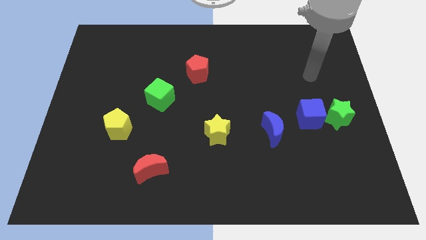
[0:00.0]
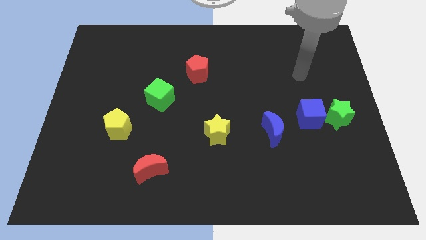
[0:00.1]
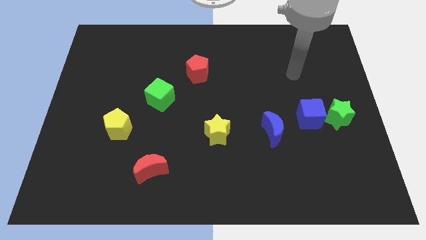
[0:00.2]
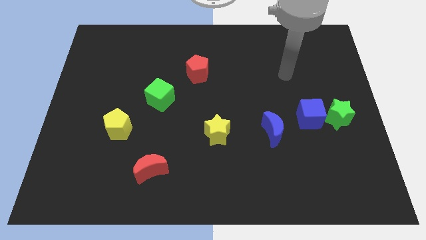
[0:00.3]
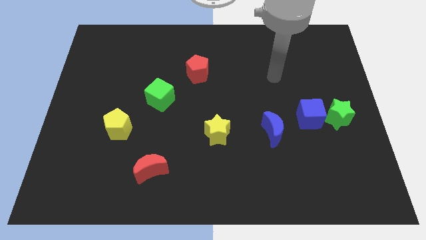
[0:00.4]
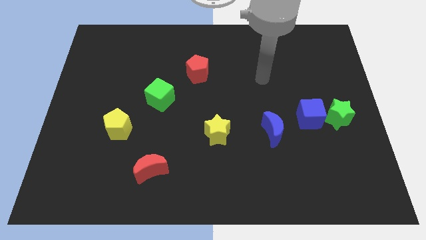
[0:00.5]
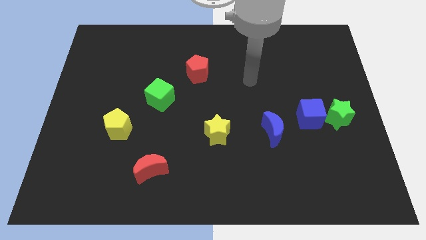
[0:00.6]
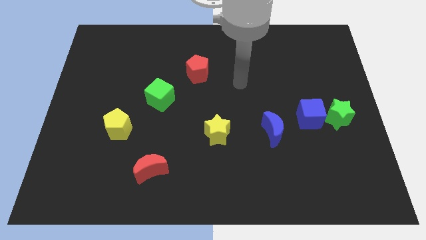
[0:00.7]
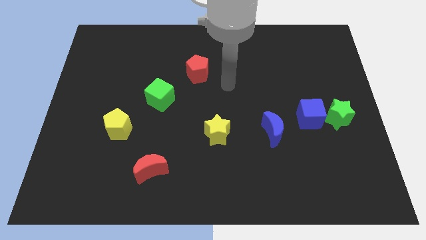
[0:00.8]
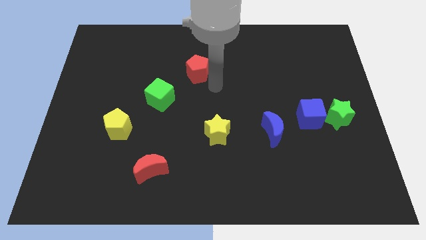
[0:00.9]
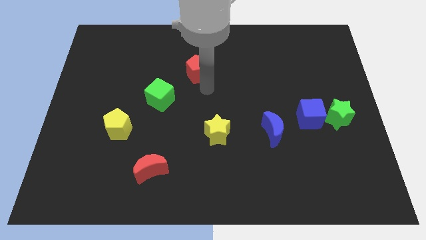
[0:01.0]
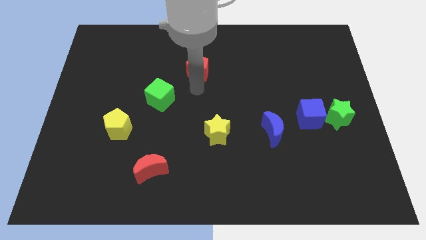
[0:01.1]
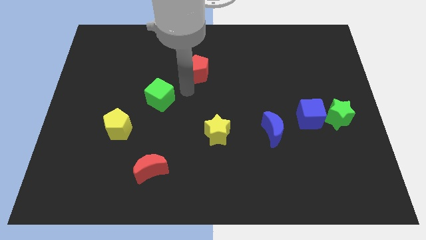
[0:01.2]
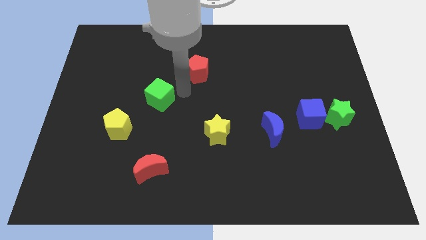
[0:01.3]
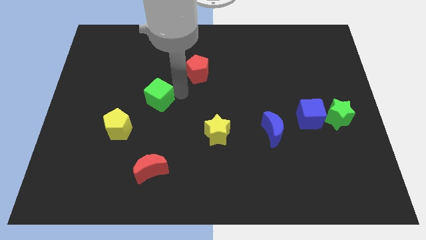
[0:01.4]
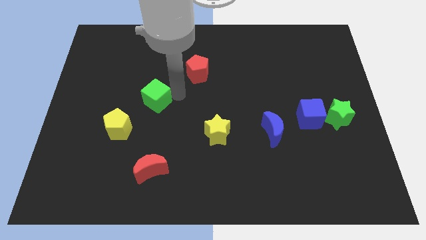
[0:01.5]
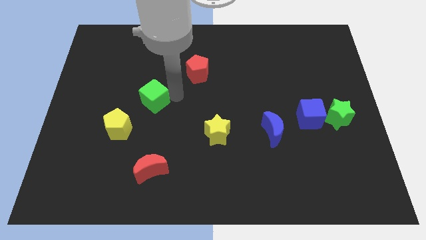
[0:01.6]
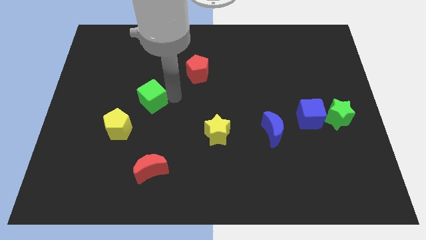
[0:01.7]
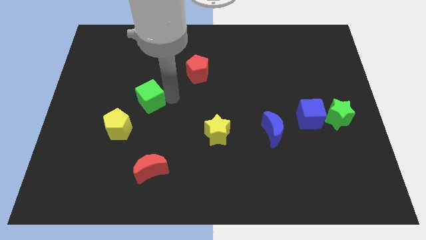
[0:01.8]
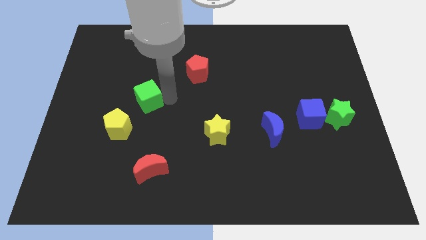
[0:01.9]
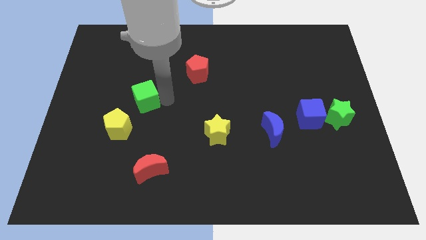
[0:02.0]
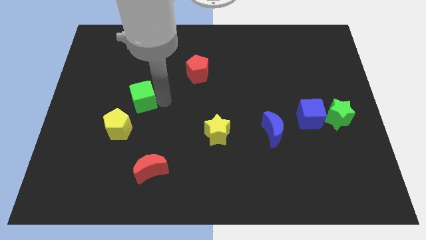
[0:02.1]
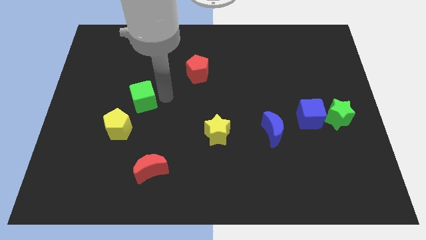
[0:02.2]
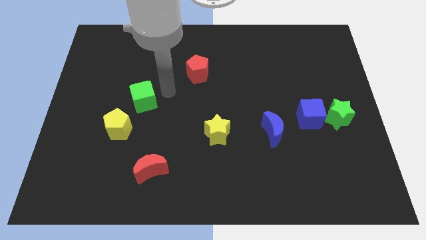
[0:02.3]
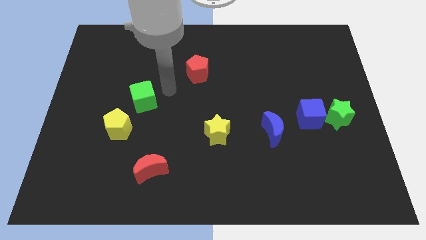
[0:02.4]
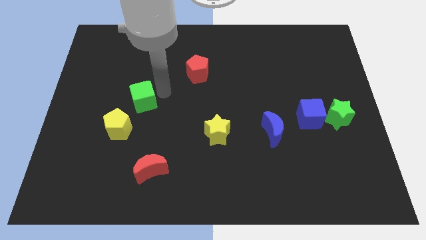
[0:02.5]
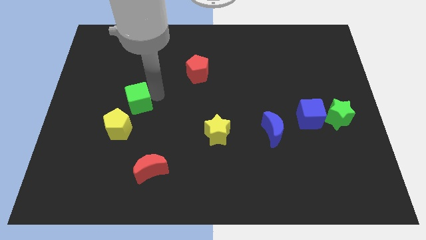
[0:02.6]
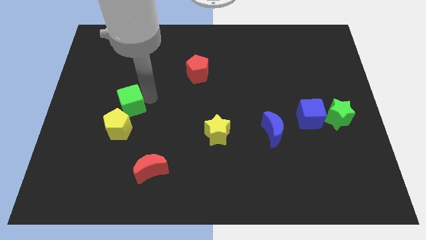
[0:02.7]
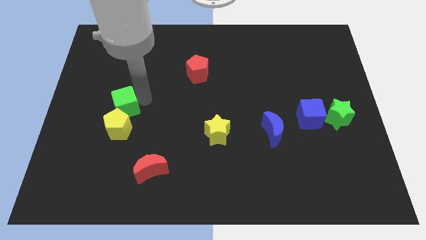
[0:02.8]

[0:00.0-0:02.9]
slide the green cube downwards and left diagonally a little

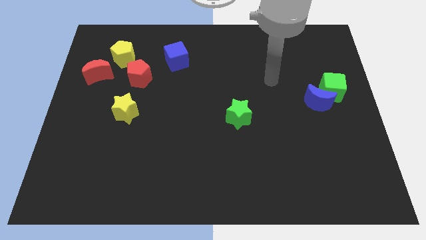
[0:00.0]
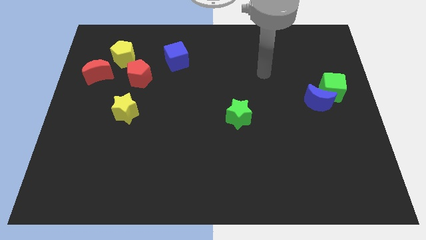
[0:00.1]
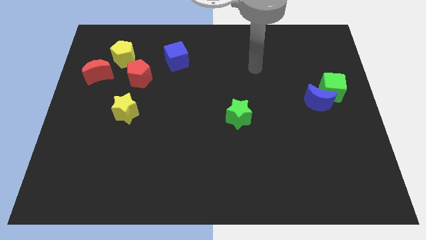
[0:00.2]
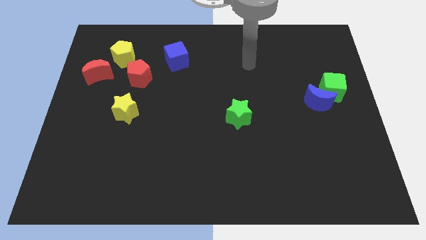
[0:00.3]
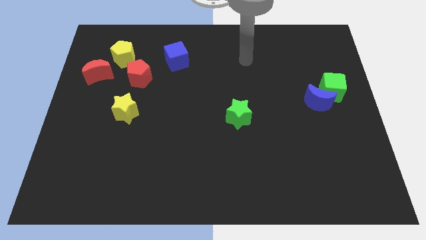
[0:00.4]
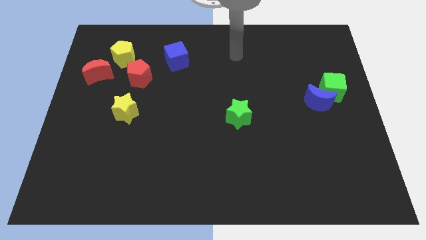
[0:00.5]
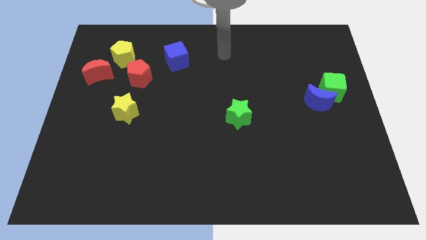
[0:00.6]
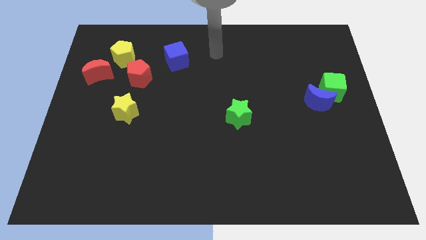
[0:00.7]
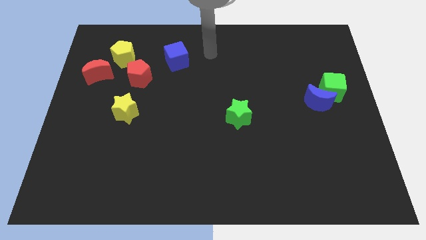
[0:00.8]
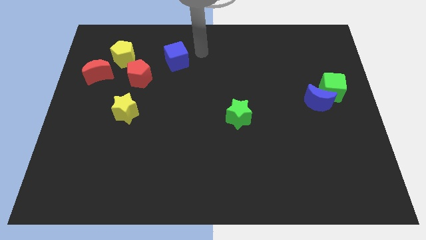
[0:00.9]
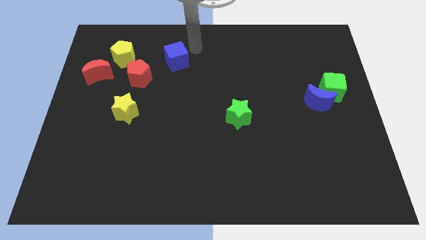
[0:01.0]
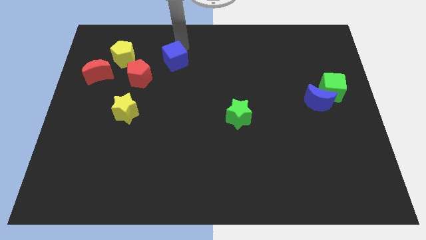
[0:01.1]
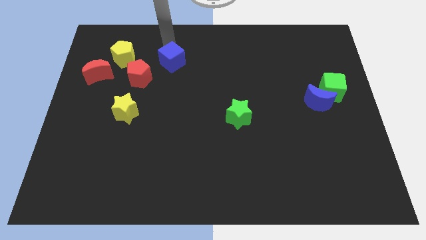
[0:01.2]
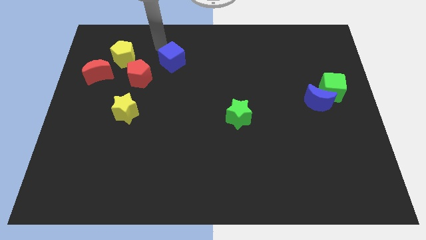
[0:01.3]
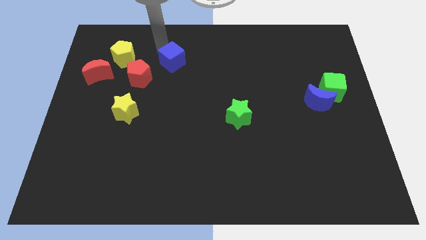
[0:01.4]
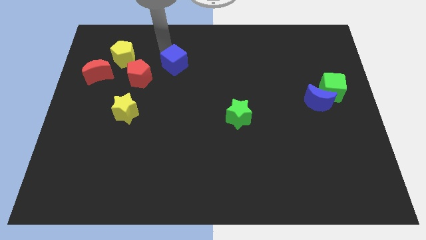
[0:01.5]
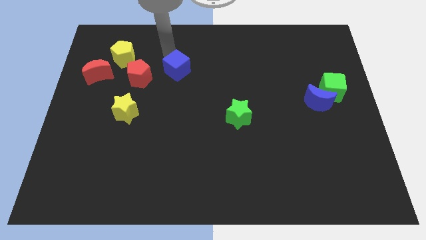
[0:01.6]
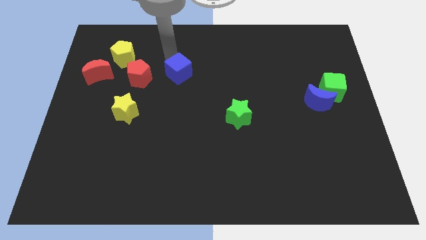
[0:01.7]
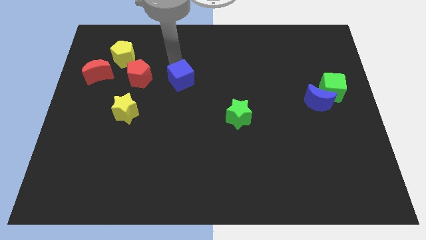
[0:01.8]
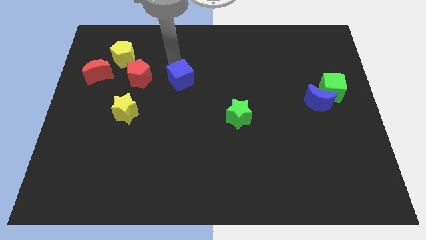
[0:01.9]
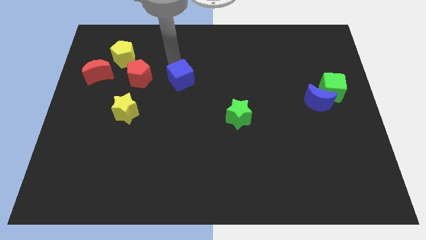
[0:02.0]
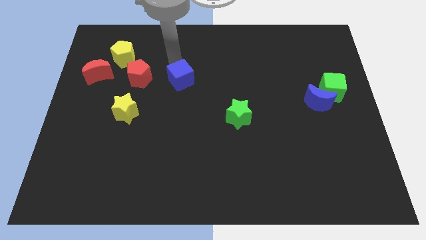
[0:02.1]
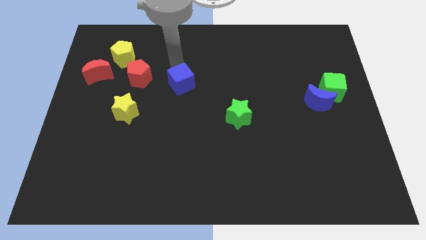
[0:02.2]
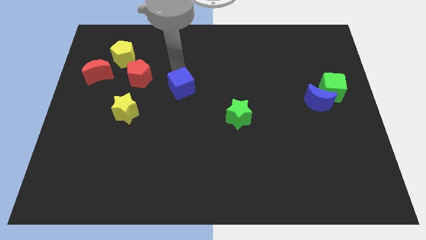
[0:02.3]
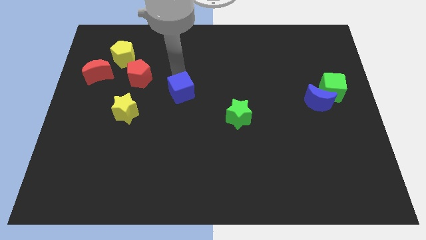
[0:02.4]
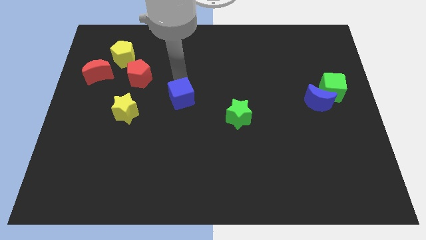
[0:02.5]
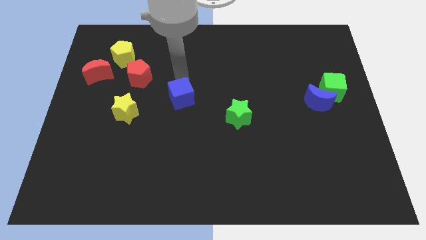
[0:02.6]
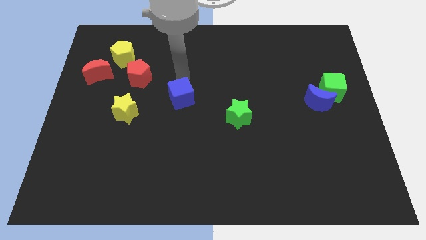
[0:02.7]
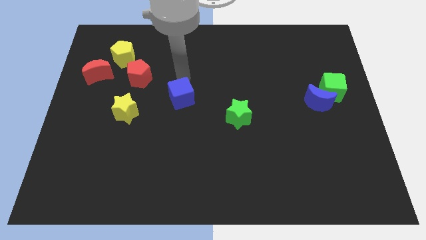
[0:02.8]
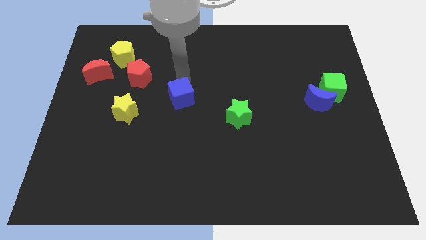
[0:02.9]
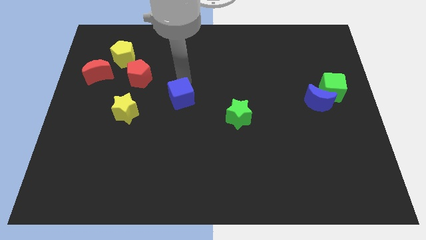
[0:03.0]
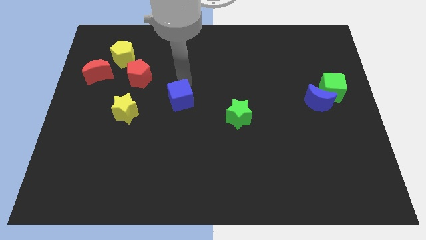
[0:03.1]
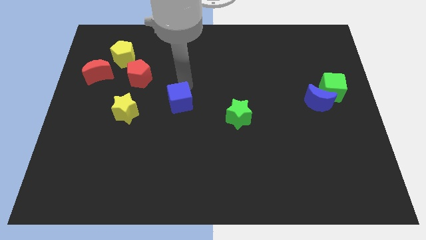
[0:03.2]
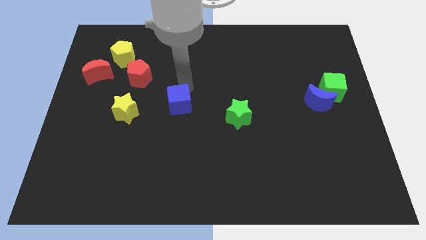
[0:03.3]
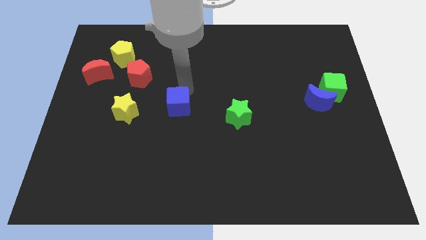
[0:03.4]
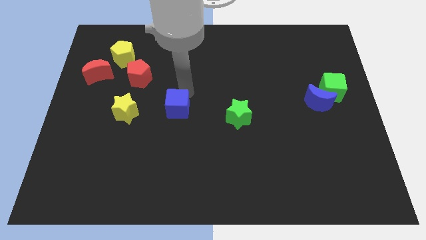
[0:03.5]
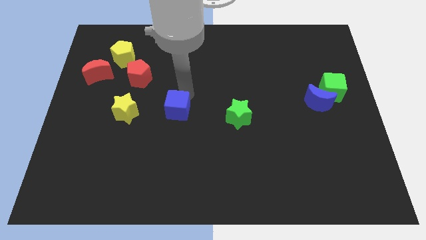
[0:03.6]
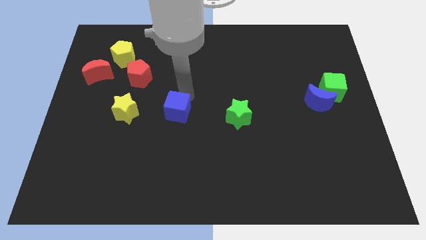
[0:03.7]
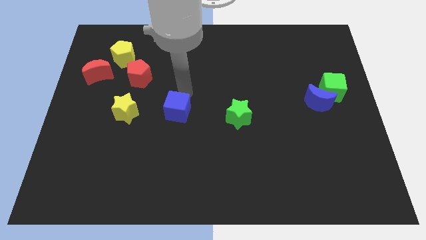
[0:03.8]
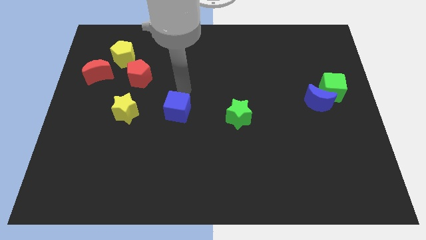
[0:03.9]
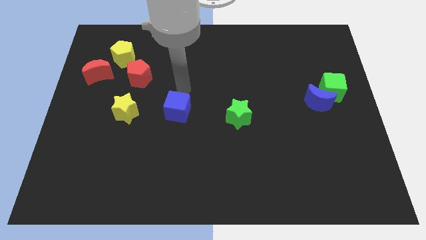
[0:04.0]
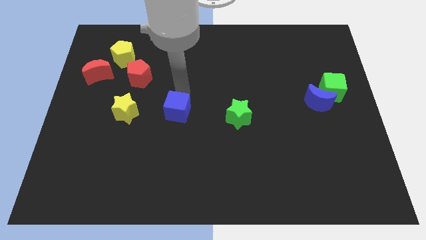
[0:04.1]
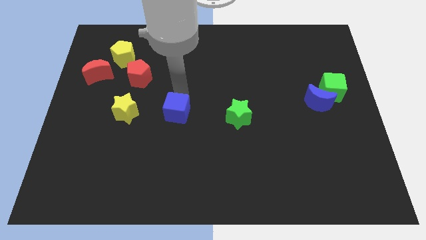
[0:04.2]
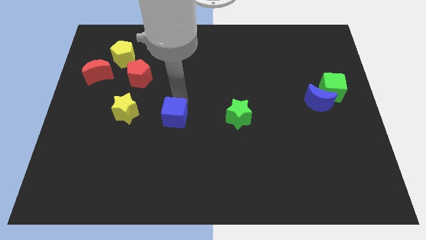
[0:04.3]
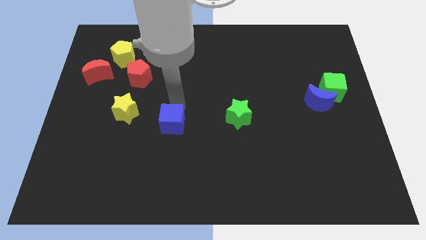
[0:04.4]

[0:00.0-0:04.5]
push the blue cube down

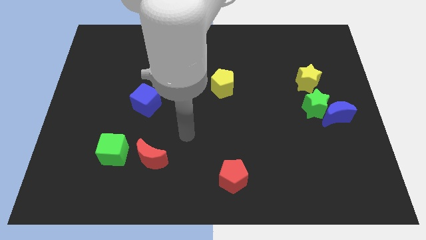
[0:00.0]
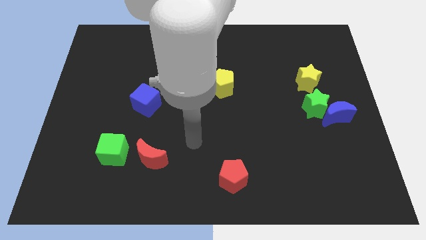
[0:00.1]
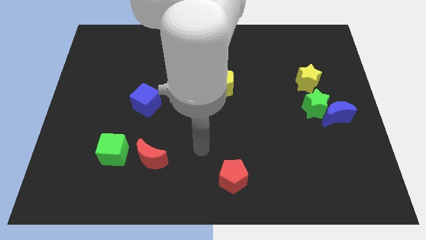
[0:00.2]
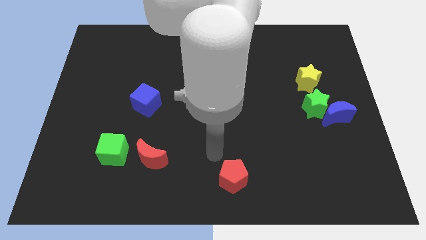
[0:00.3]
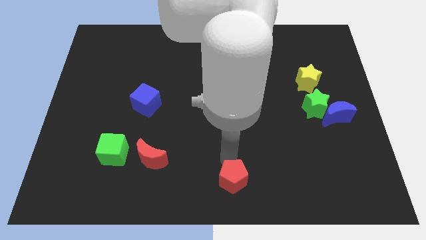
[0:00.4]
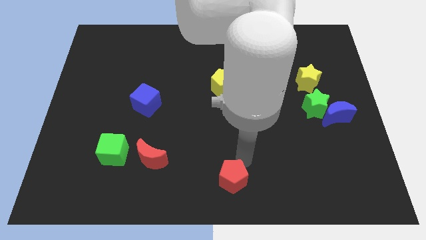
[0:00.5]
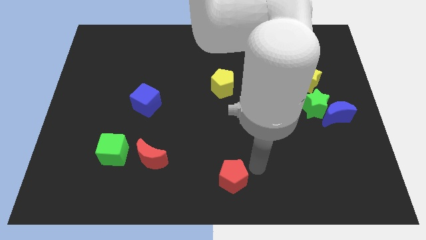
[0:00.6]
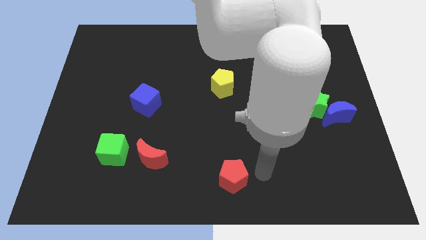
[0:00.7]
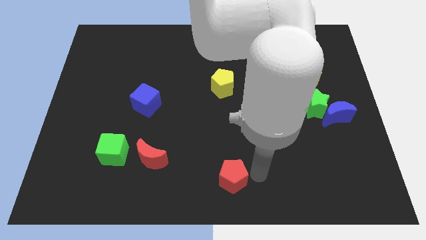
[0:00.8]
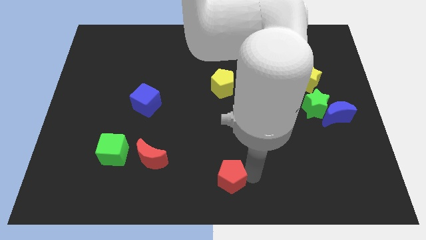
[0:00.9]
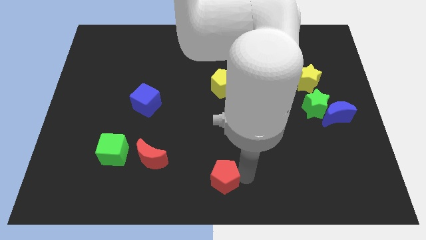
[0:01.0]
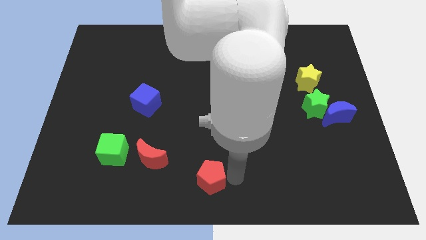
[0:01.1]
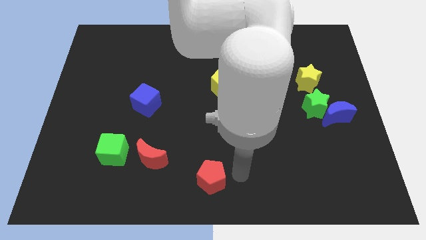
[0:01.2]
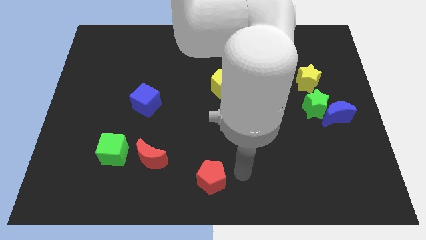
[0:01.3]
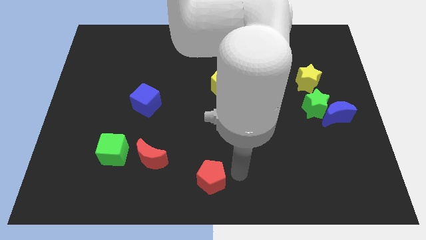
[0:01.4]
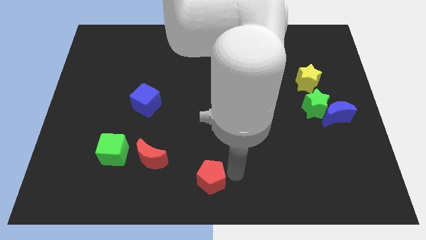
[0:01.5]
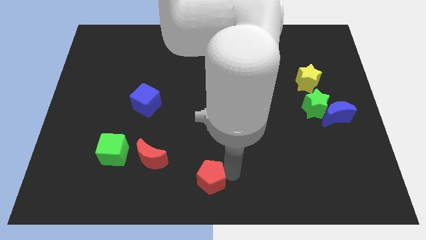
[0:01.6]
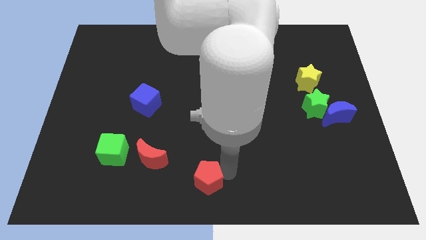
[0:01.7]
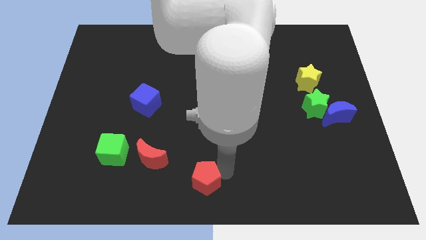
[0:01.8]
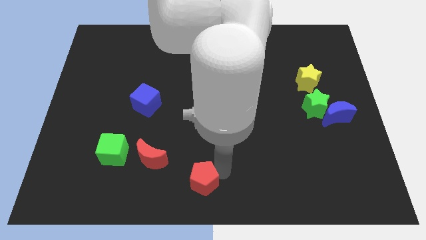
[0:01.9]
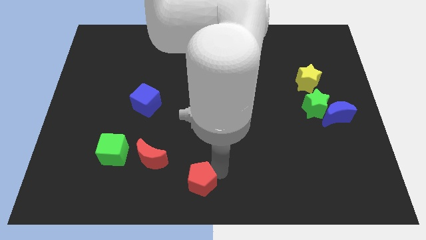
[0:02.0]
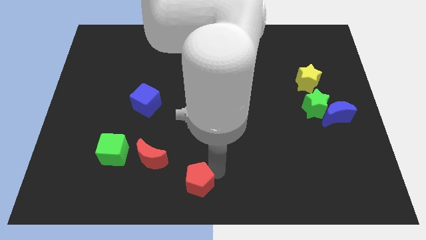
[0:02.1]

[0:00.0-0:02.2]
slide the red pentagon slightly to the left
